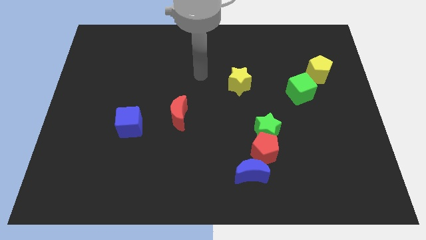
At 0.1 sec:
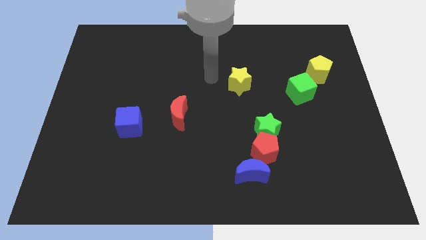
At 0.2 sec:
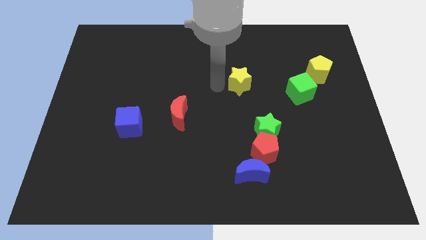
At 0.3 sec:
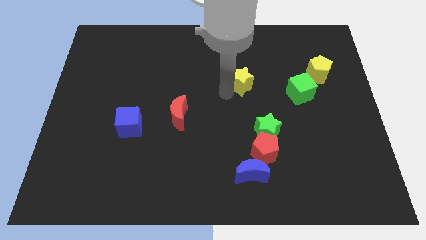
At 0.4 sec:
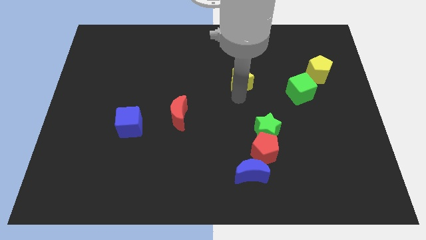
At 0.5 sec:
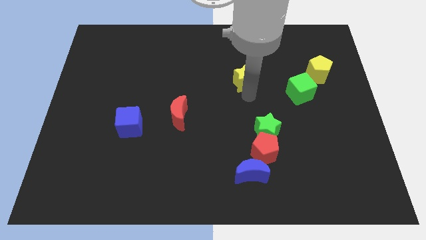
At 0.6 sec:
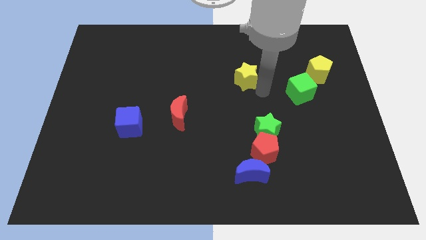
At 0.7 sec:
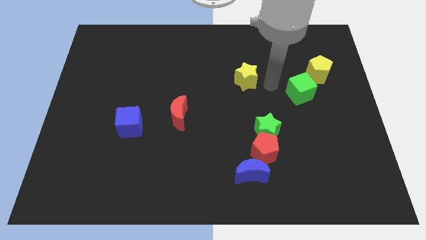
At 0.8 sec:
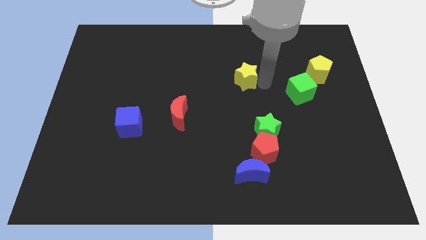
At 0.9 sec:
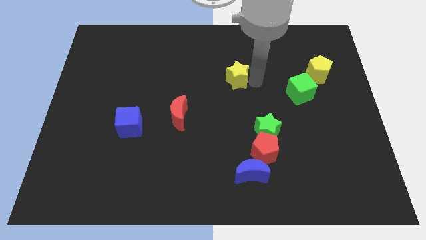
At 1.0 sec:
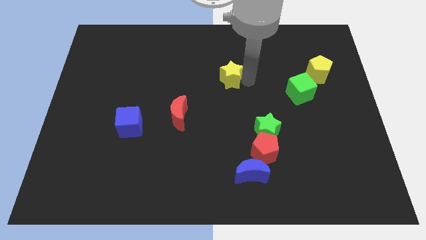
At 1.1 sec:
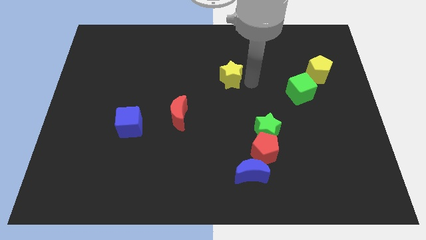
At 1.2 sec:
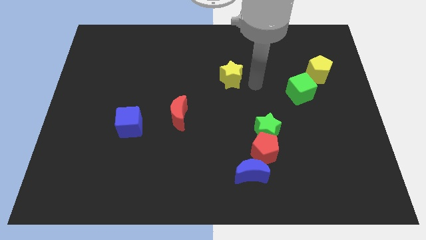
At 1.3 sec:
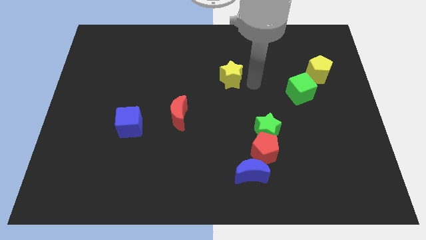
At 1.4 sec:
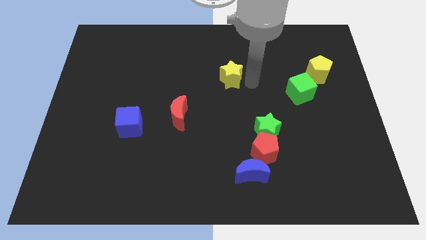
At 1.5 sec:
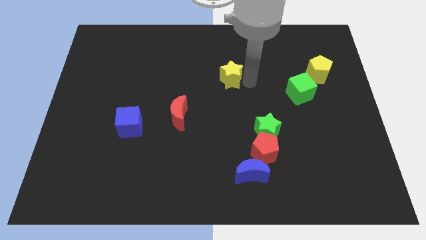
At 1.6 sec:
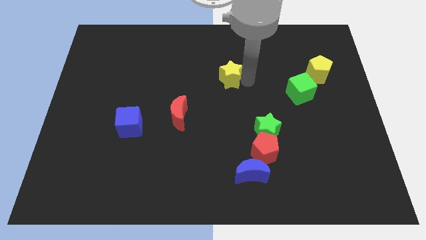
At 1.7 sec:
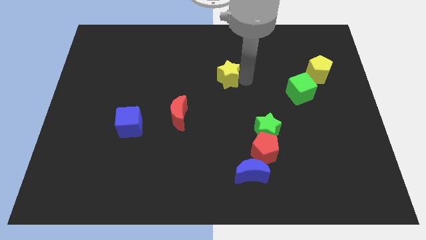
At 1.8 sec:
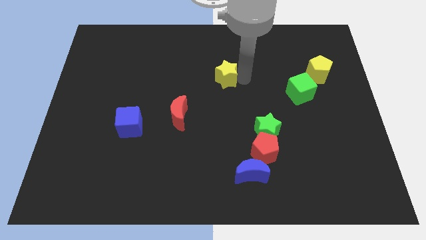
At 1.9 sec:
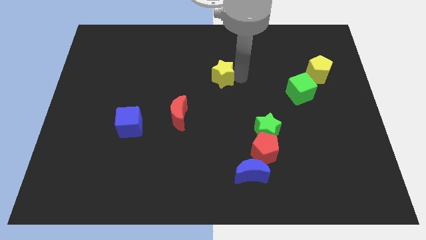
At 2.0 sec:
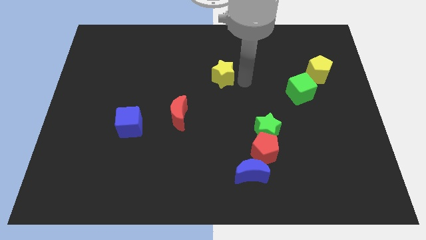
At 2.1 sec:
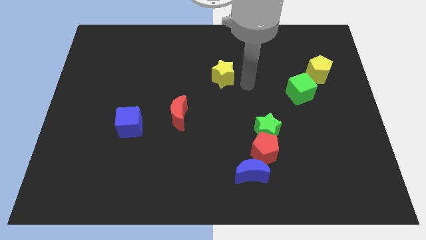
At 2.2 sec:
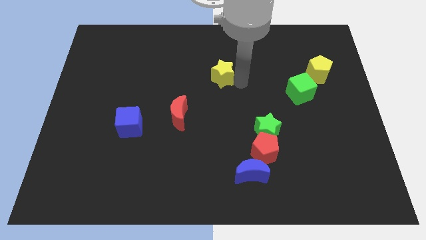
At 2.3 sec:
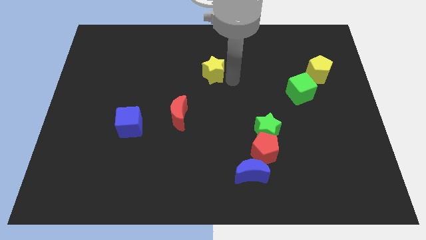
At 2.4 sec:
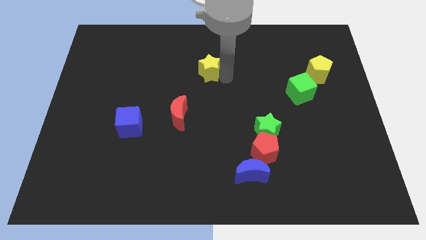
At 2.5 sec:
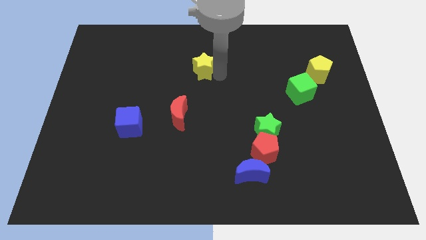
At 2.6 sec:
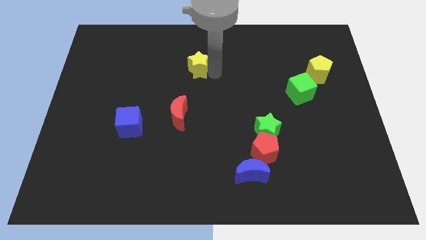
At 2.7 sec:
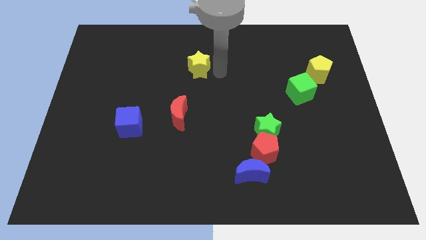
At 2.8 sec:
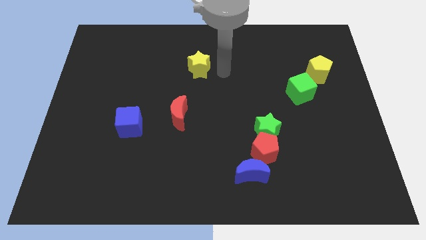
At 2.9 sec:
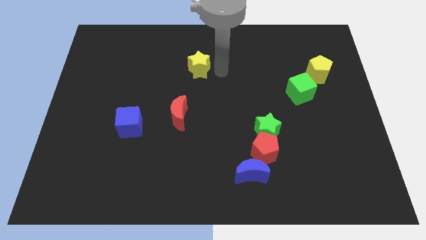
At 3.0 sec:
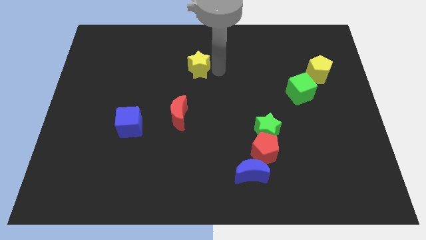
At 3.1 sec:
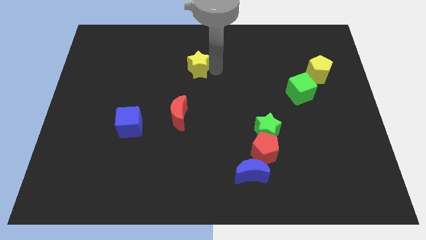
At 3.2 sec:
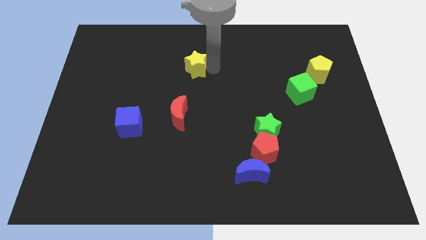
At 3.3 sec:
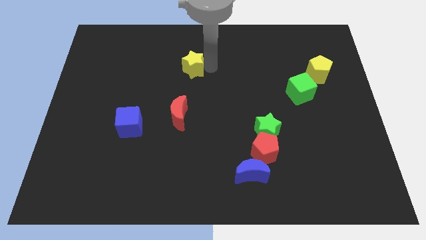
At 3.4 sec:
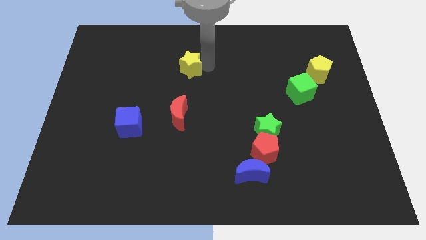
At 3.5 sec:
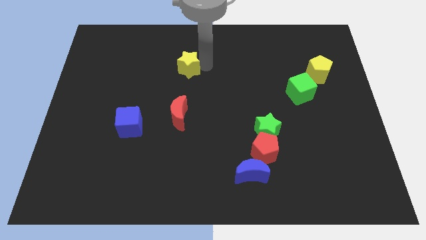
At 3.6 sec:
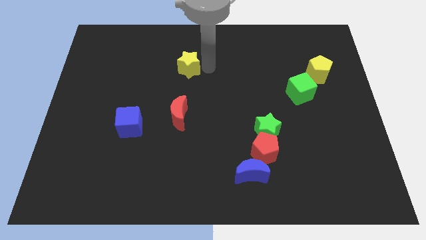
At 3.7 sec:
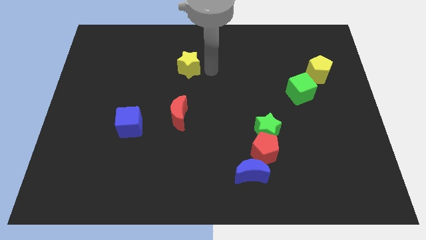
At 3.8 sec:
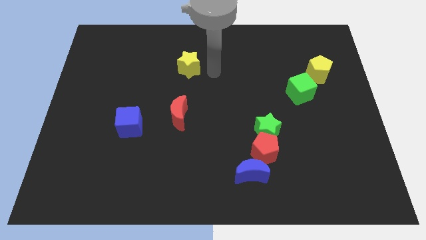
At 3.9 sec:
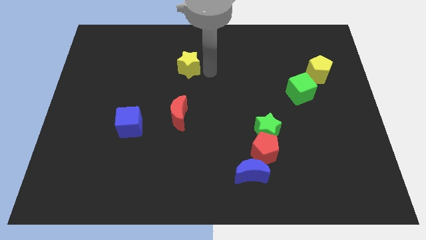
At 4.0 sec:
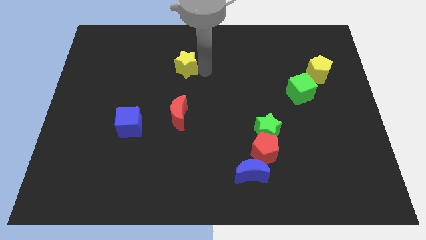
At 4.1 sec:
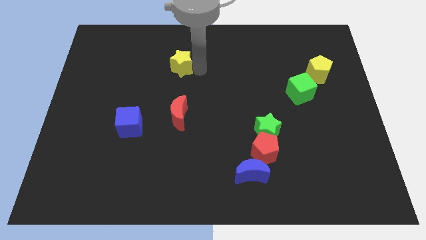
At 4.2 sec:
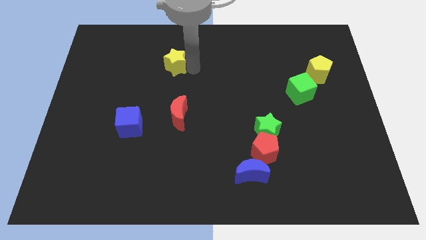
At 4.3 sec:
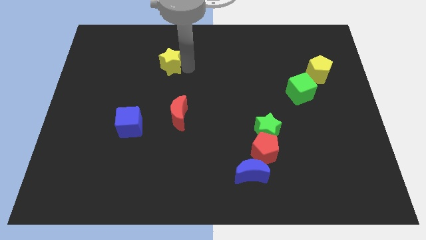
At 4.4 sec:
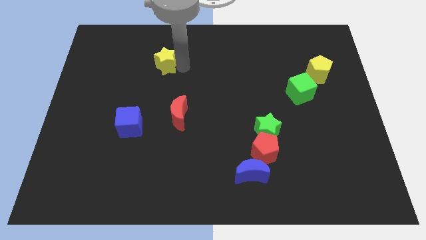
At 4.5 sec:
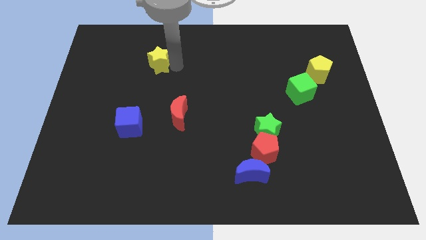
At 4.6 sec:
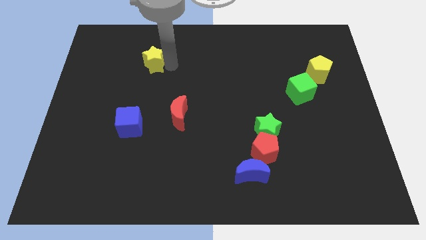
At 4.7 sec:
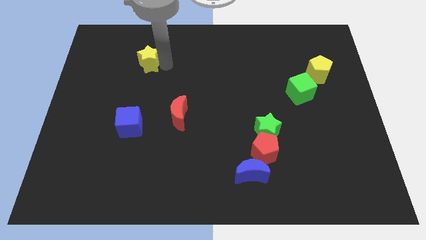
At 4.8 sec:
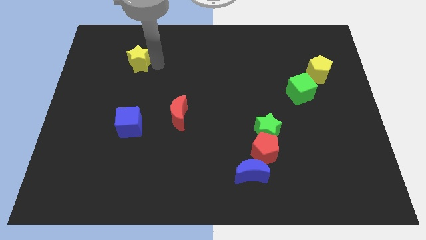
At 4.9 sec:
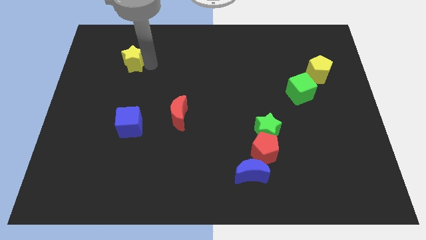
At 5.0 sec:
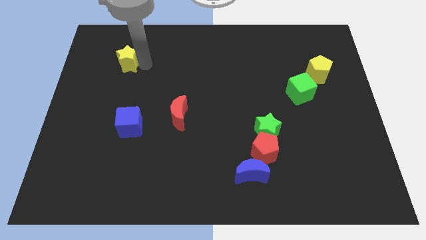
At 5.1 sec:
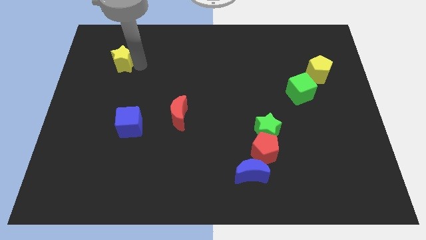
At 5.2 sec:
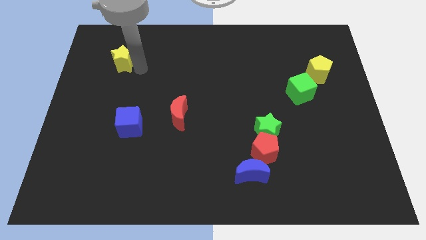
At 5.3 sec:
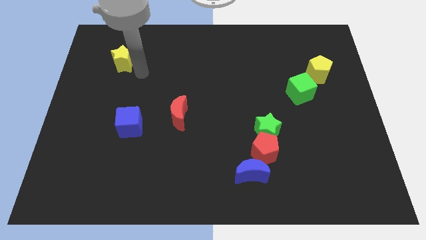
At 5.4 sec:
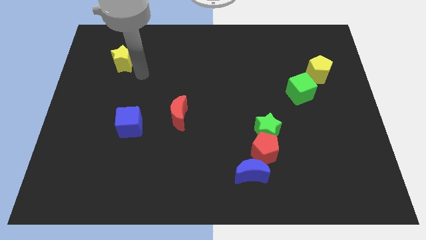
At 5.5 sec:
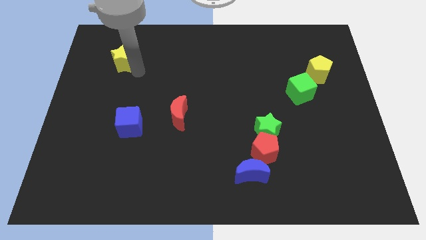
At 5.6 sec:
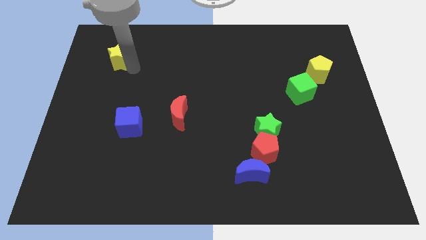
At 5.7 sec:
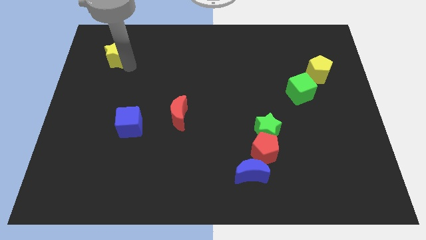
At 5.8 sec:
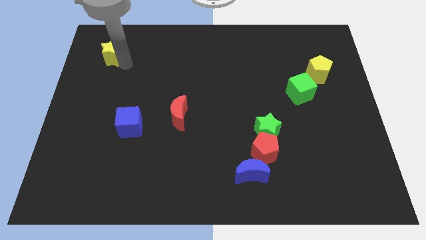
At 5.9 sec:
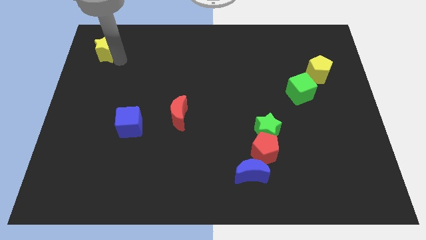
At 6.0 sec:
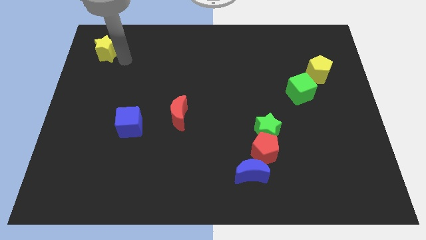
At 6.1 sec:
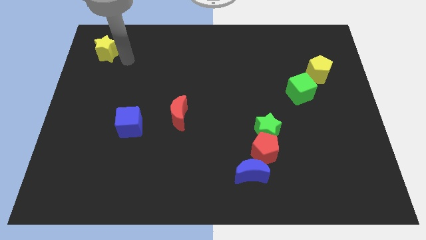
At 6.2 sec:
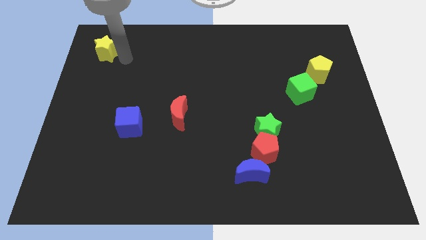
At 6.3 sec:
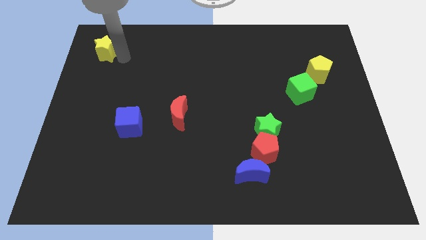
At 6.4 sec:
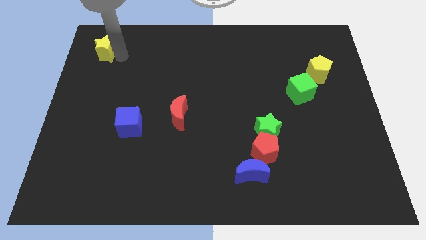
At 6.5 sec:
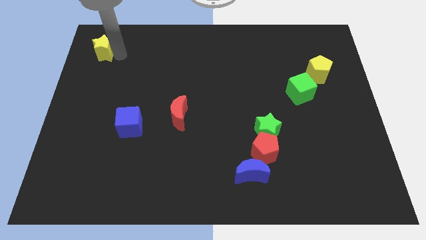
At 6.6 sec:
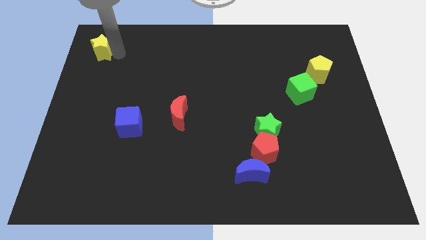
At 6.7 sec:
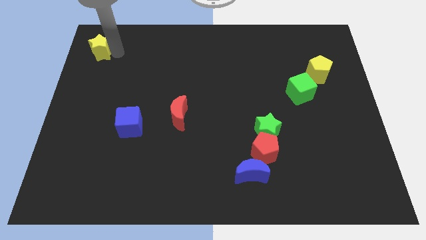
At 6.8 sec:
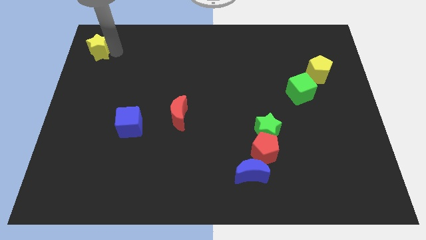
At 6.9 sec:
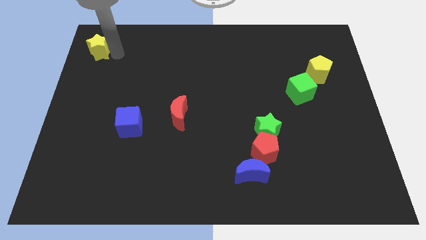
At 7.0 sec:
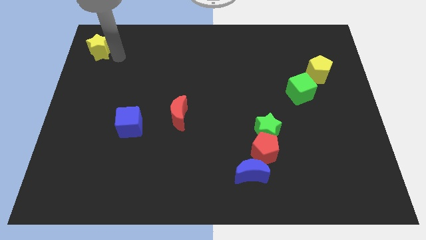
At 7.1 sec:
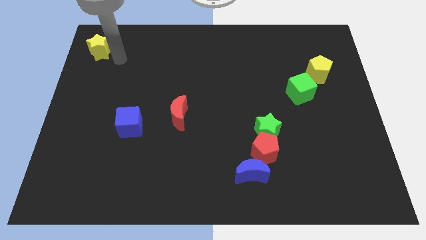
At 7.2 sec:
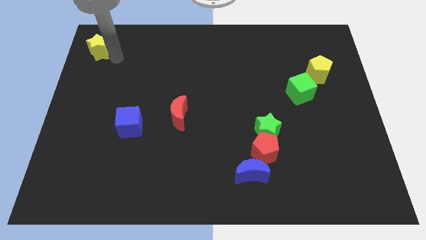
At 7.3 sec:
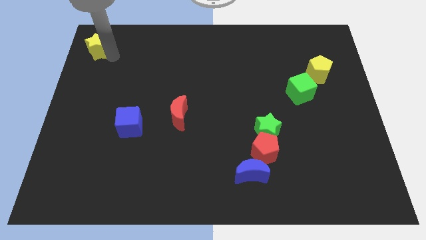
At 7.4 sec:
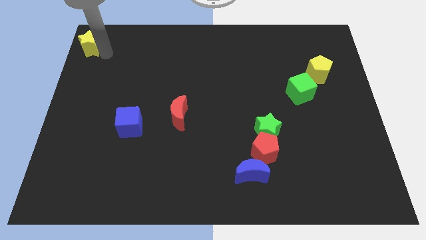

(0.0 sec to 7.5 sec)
put the yellow star to the upper left corner
